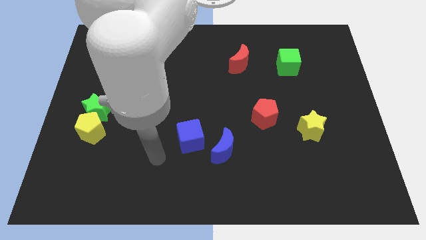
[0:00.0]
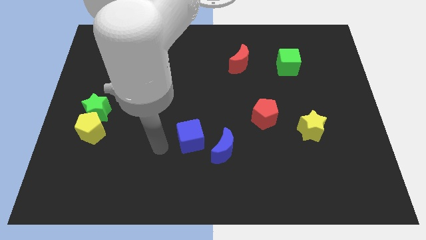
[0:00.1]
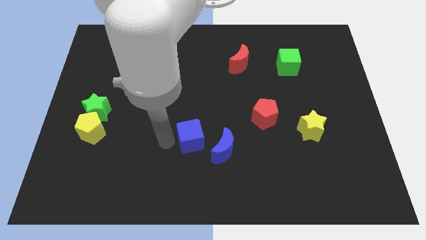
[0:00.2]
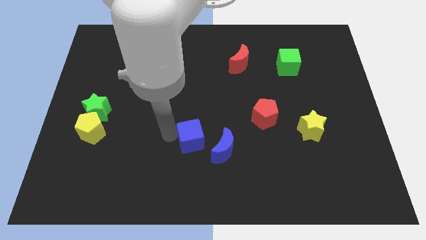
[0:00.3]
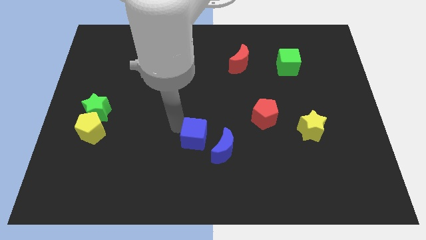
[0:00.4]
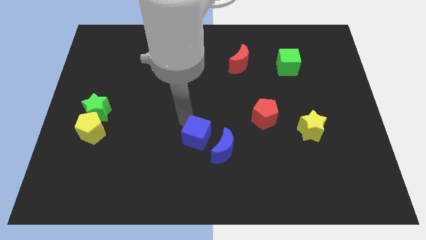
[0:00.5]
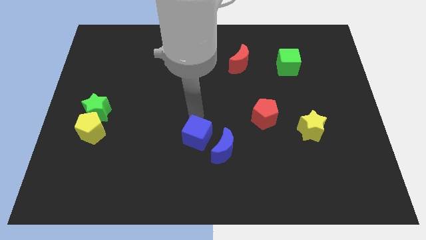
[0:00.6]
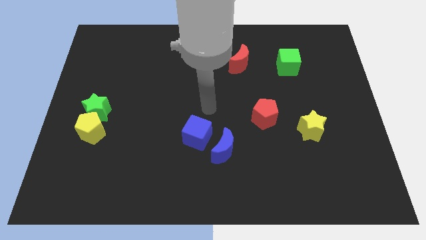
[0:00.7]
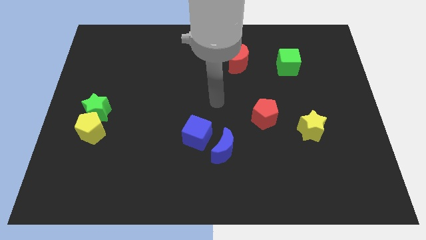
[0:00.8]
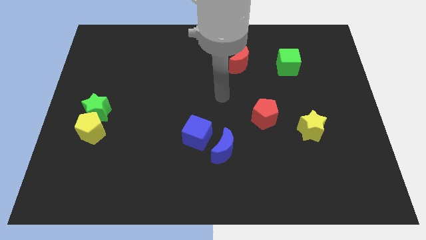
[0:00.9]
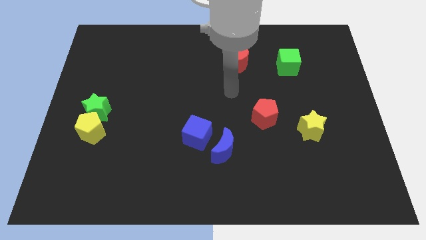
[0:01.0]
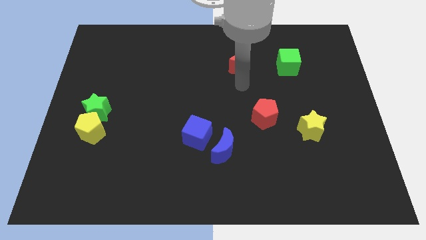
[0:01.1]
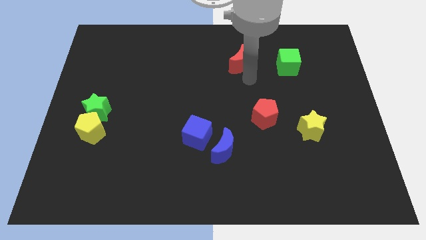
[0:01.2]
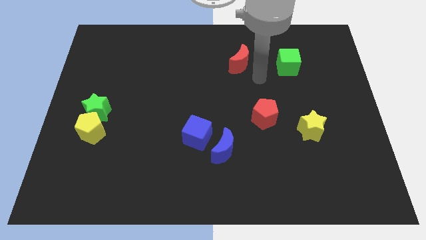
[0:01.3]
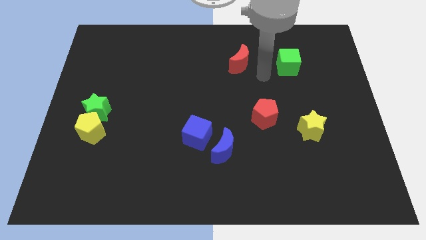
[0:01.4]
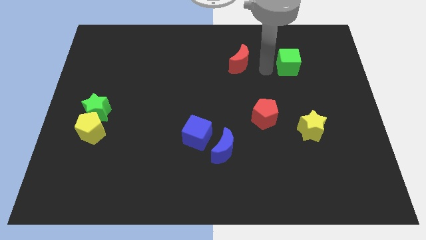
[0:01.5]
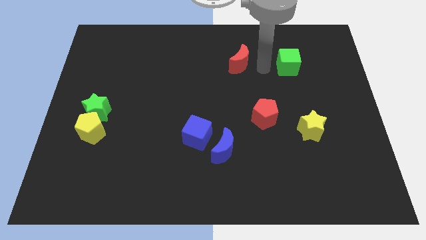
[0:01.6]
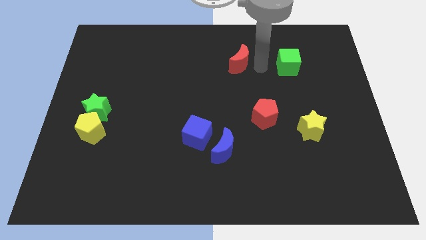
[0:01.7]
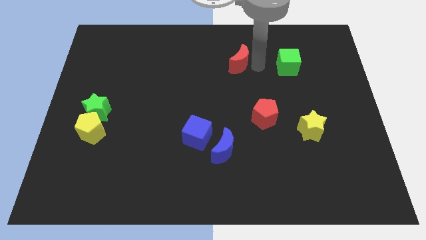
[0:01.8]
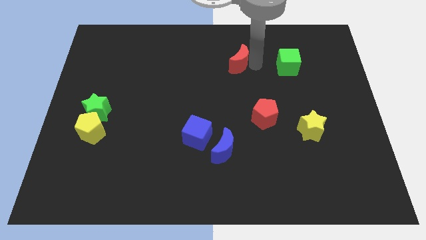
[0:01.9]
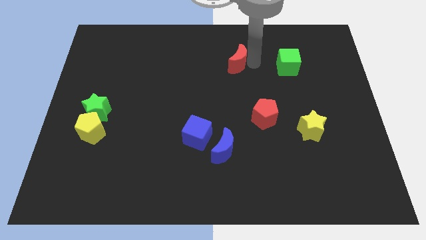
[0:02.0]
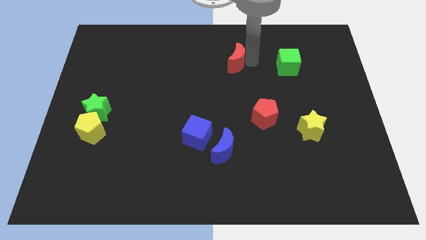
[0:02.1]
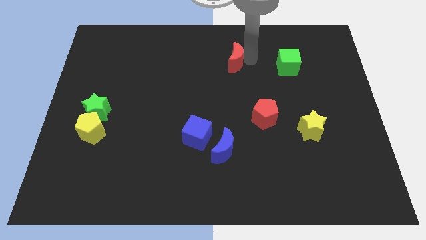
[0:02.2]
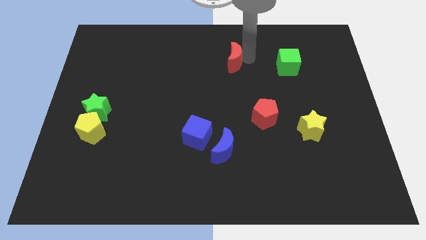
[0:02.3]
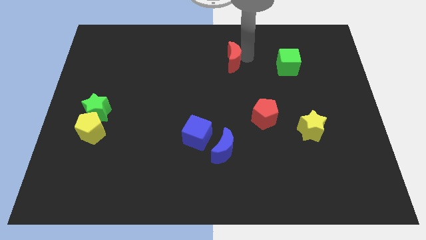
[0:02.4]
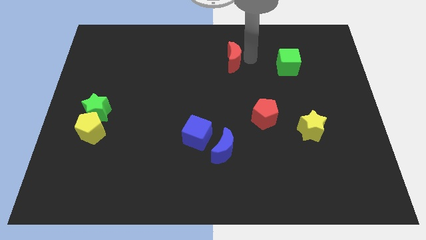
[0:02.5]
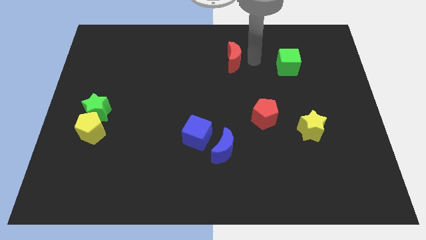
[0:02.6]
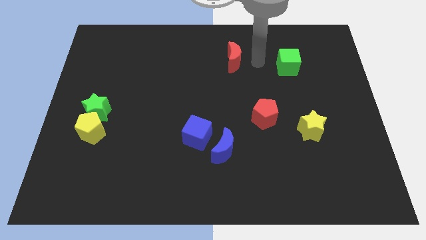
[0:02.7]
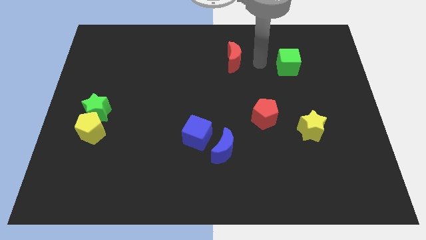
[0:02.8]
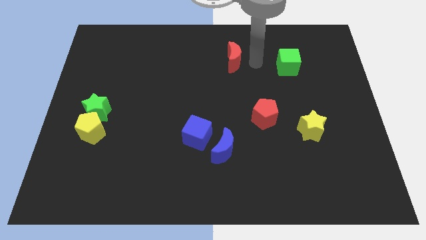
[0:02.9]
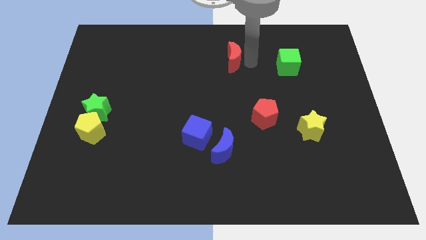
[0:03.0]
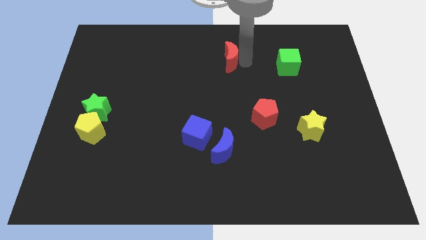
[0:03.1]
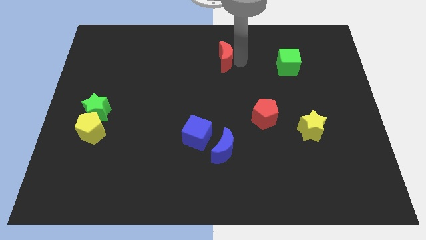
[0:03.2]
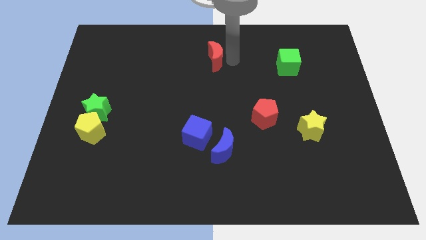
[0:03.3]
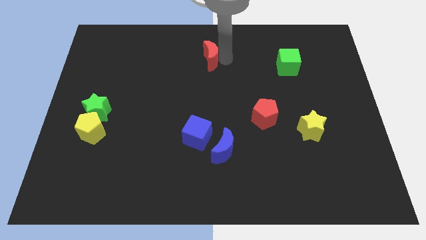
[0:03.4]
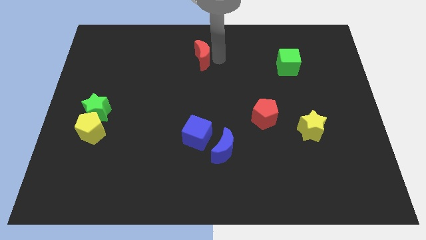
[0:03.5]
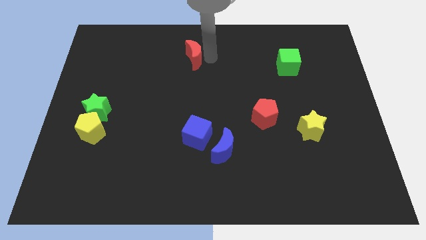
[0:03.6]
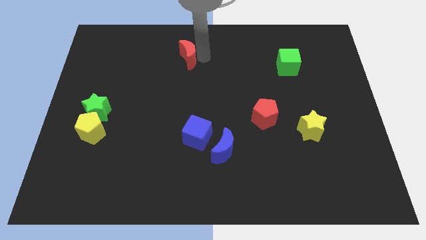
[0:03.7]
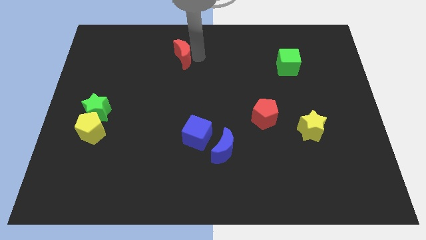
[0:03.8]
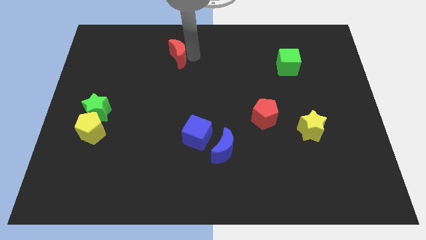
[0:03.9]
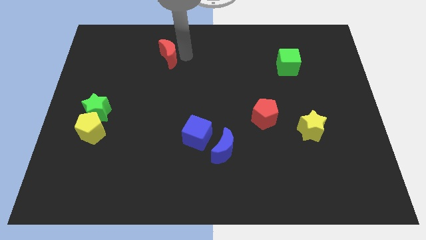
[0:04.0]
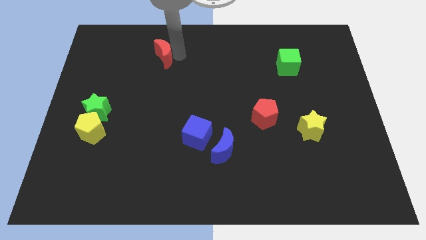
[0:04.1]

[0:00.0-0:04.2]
slide the red moon to the left

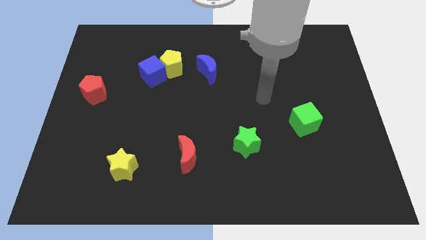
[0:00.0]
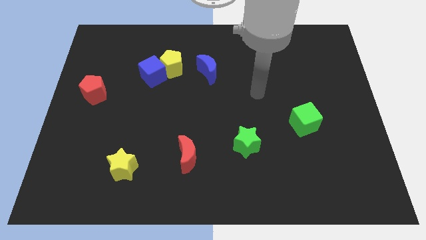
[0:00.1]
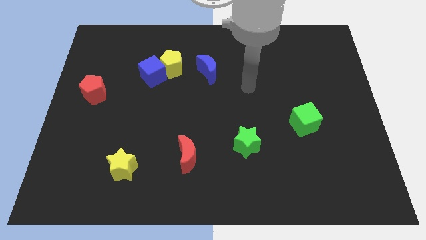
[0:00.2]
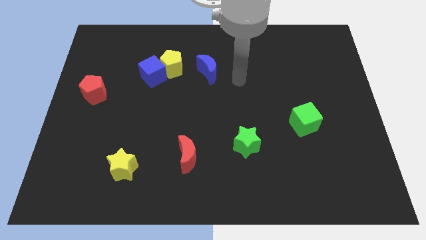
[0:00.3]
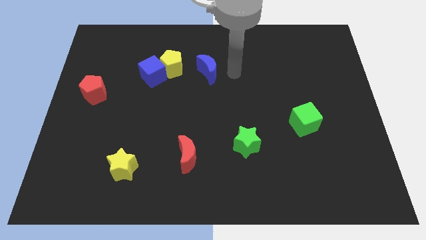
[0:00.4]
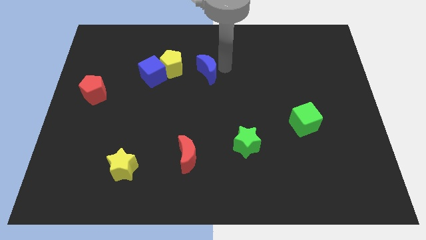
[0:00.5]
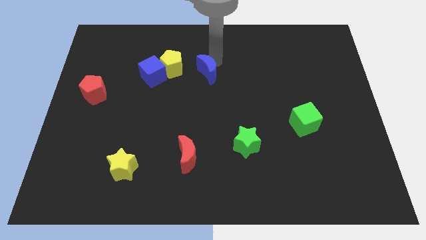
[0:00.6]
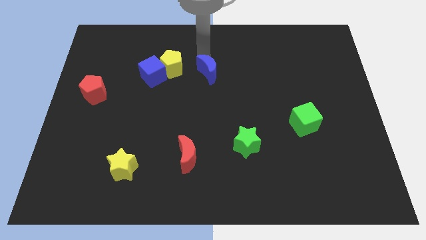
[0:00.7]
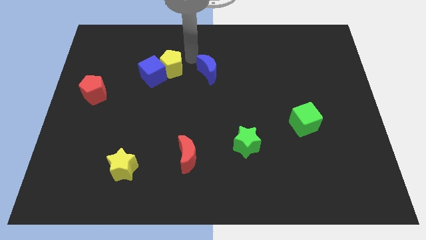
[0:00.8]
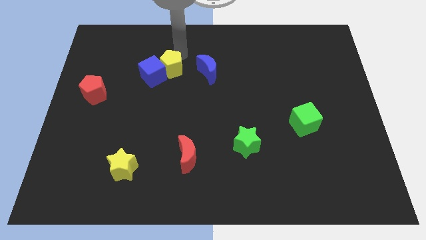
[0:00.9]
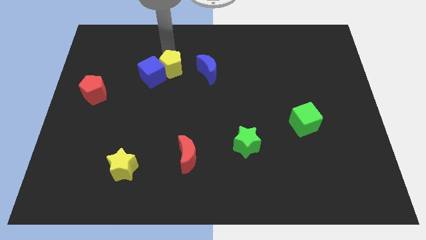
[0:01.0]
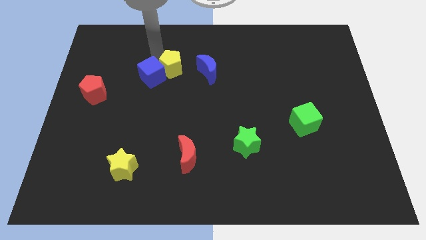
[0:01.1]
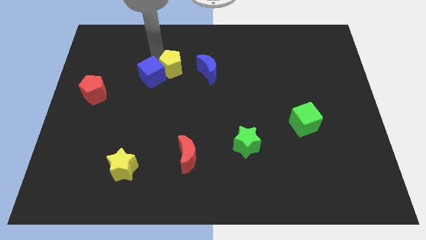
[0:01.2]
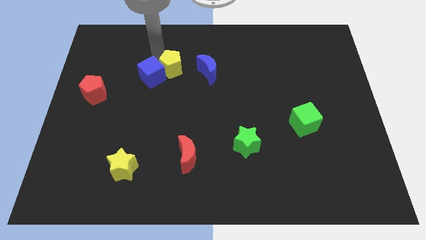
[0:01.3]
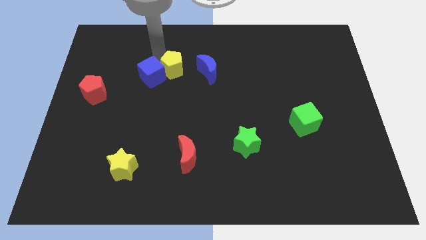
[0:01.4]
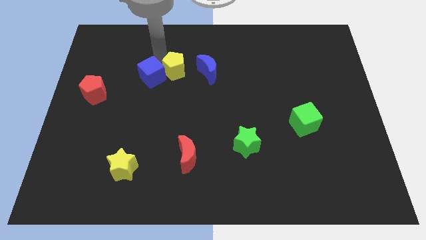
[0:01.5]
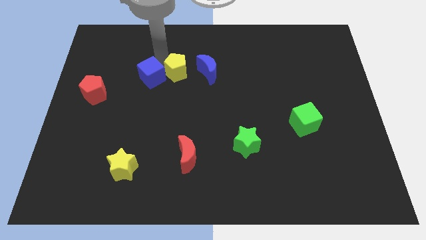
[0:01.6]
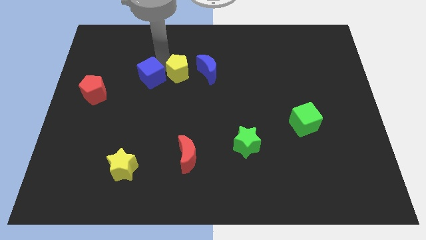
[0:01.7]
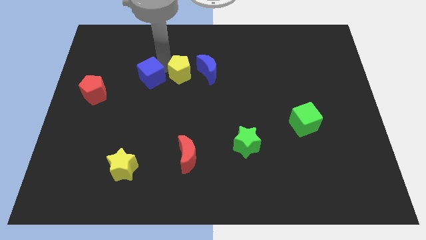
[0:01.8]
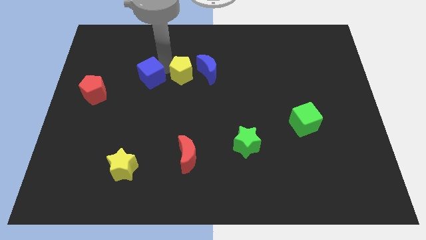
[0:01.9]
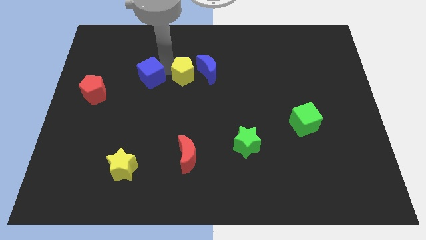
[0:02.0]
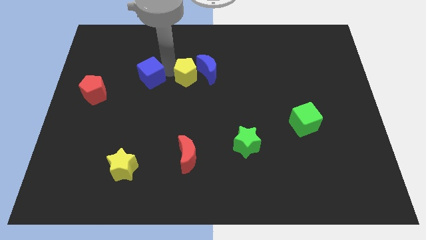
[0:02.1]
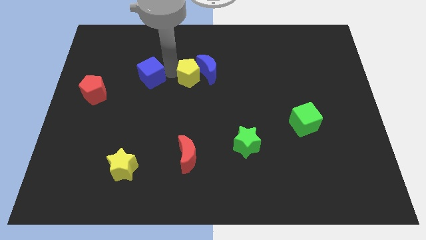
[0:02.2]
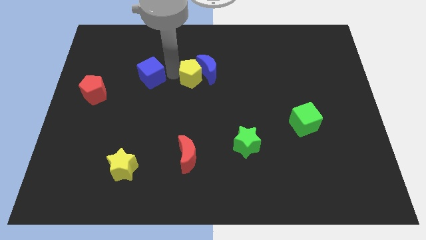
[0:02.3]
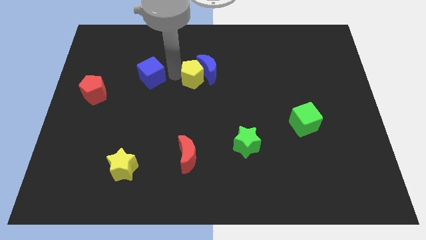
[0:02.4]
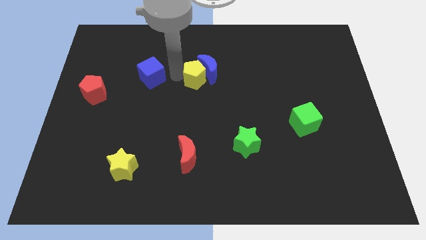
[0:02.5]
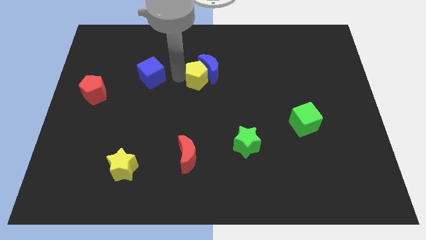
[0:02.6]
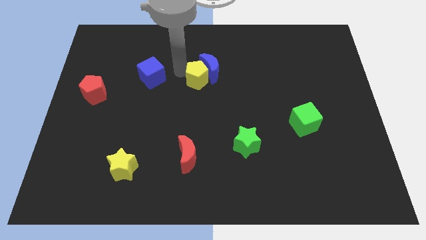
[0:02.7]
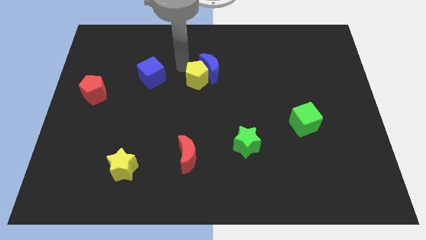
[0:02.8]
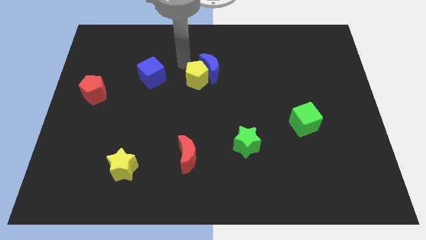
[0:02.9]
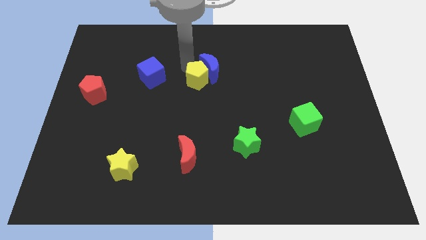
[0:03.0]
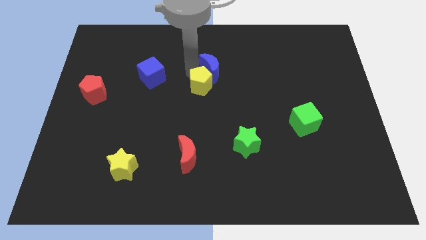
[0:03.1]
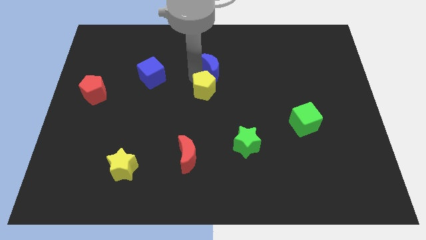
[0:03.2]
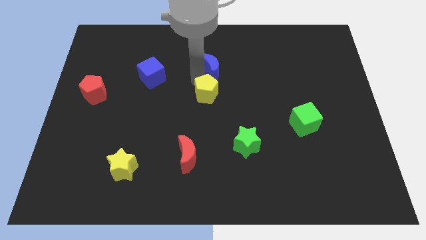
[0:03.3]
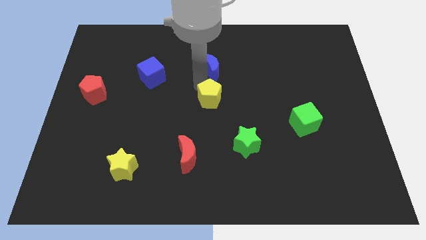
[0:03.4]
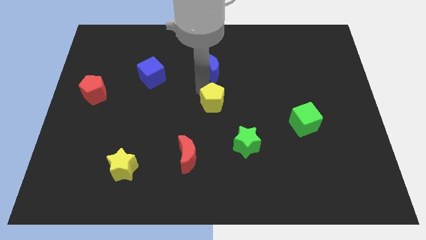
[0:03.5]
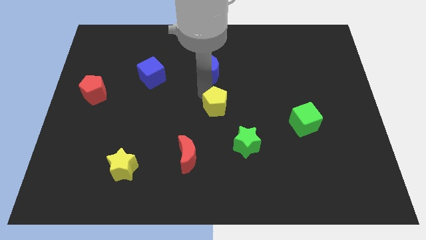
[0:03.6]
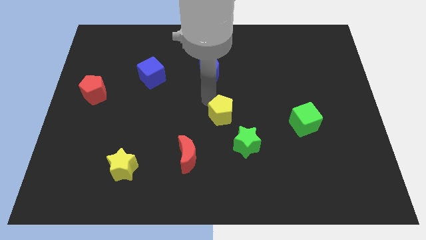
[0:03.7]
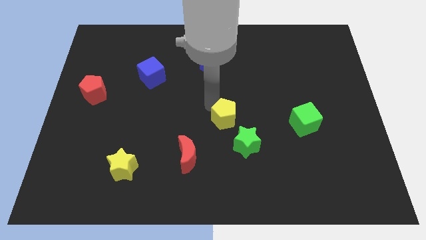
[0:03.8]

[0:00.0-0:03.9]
slide the yellow pentagon down and to the right
